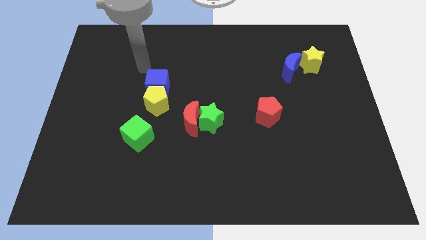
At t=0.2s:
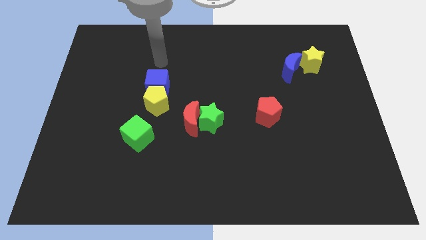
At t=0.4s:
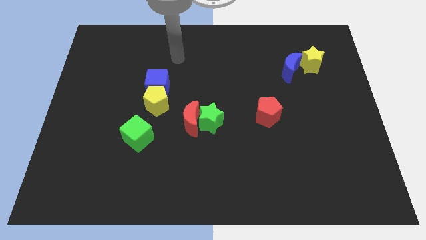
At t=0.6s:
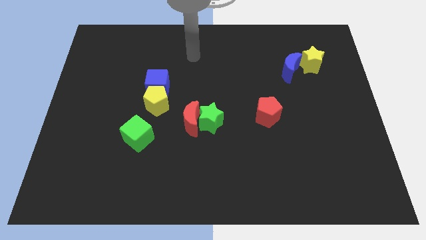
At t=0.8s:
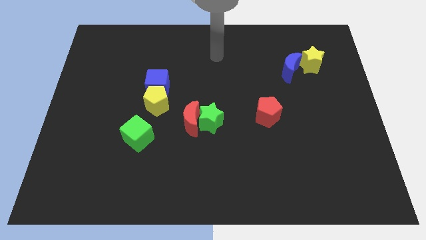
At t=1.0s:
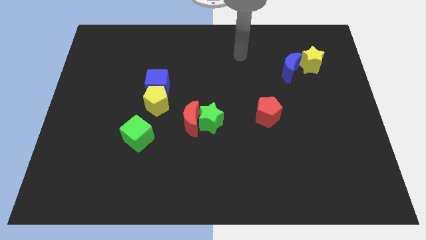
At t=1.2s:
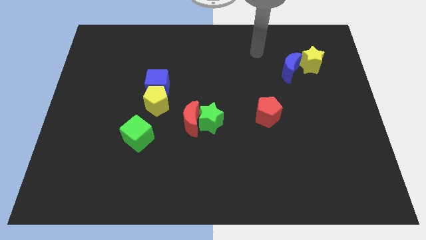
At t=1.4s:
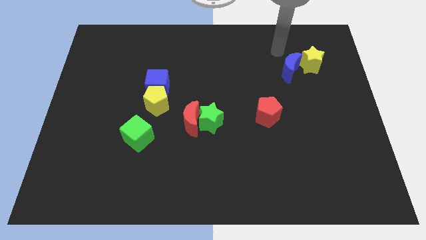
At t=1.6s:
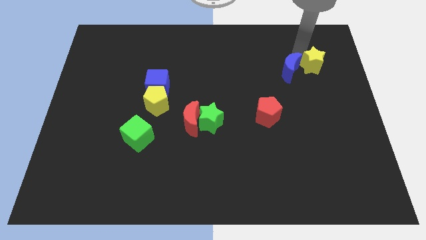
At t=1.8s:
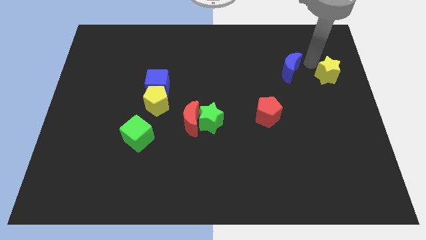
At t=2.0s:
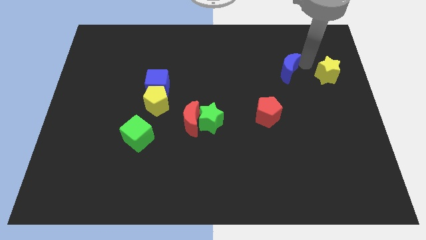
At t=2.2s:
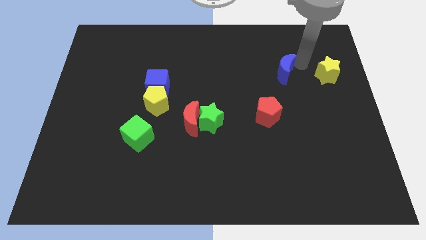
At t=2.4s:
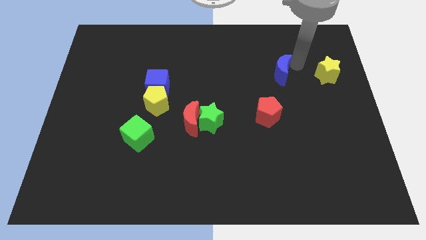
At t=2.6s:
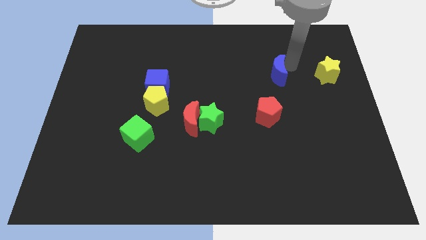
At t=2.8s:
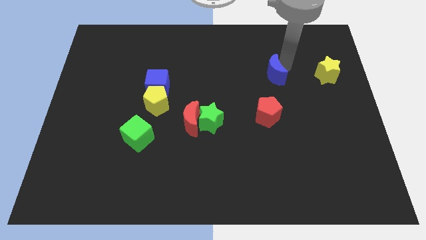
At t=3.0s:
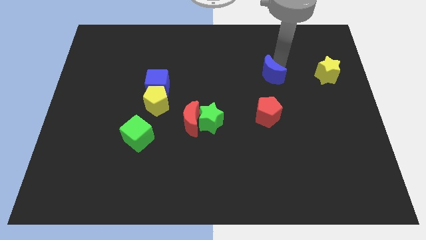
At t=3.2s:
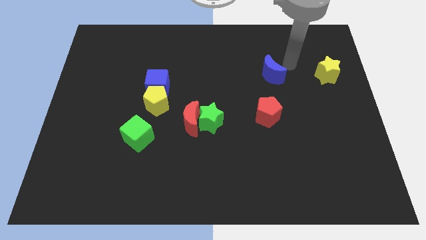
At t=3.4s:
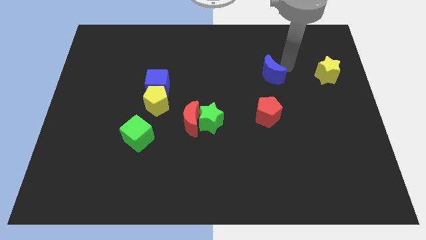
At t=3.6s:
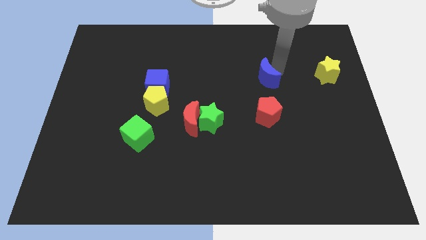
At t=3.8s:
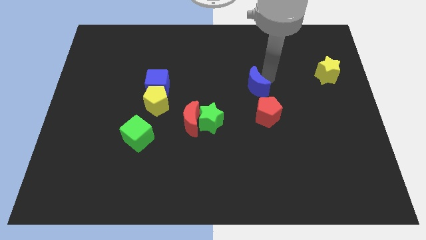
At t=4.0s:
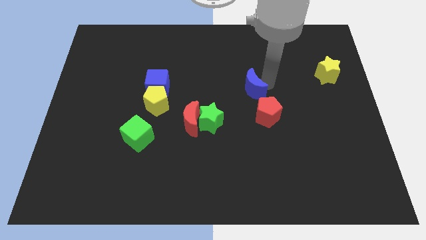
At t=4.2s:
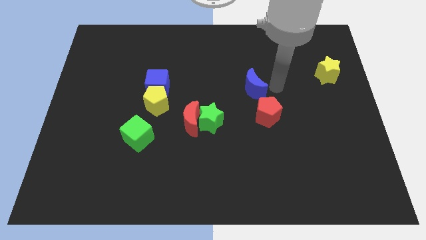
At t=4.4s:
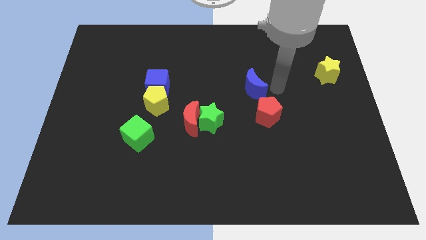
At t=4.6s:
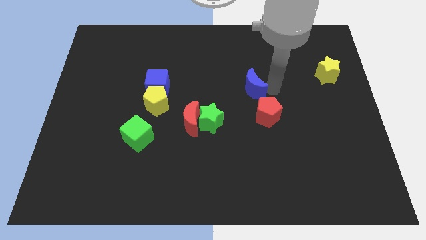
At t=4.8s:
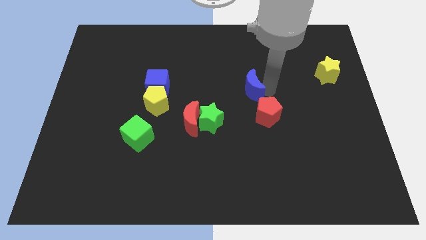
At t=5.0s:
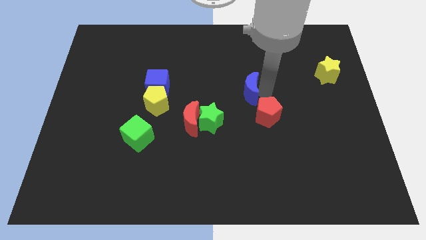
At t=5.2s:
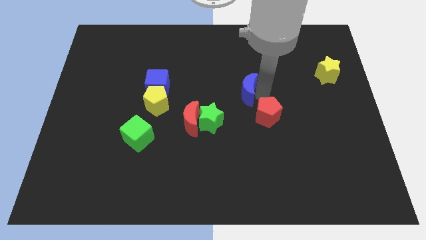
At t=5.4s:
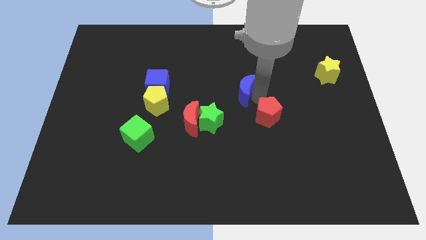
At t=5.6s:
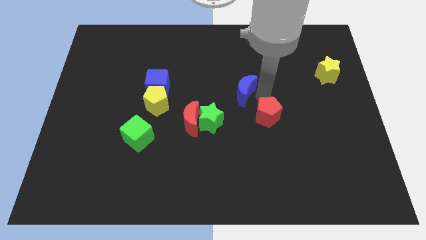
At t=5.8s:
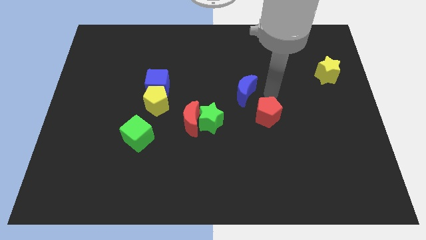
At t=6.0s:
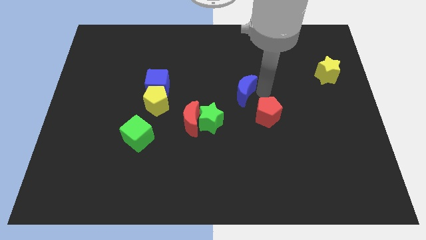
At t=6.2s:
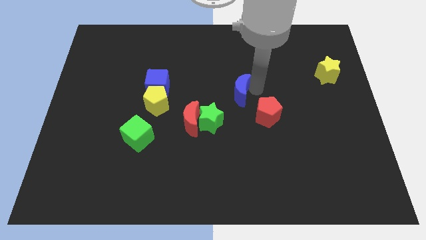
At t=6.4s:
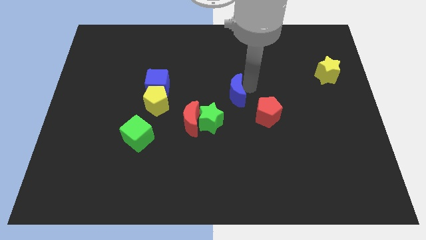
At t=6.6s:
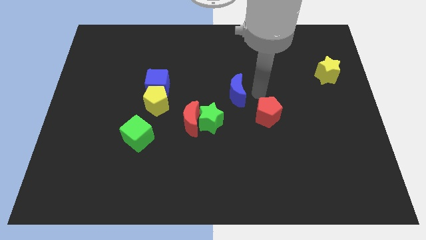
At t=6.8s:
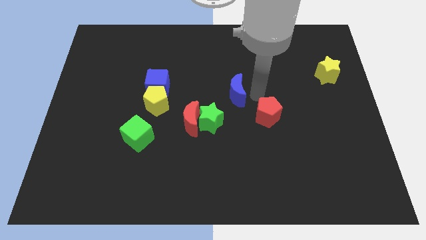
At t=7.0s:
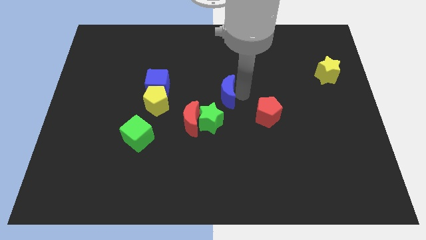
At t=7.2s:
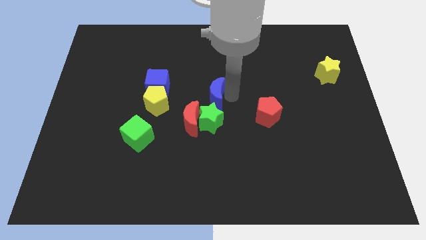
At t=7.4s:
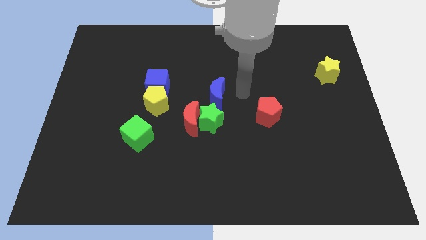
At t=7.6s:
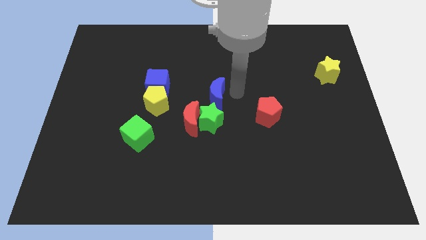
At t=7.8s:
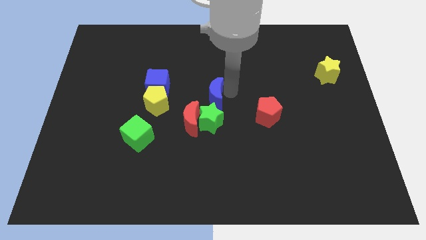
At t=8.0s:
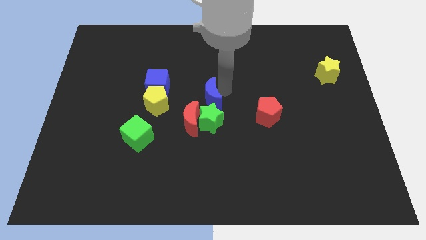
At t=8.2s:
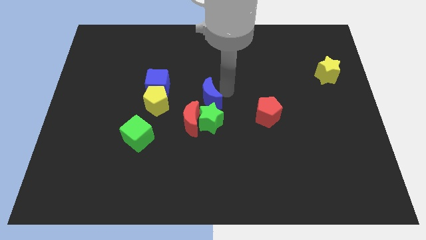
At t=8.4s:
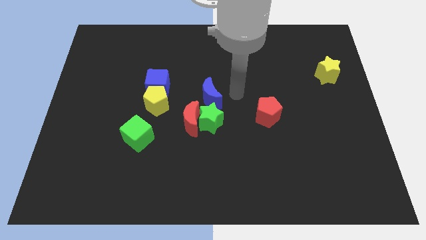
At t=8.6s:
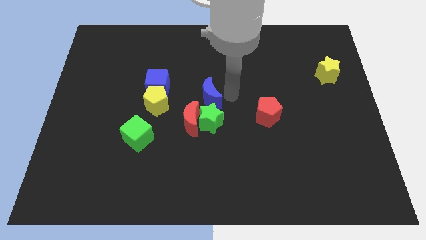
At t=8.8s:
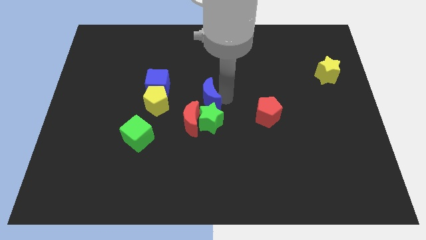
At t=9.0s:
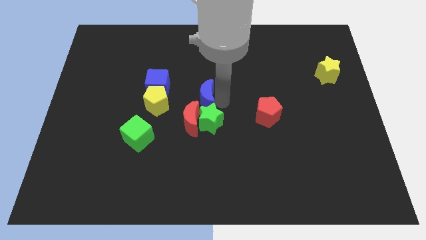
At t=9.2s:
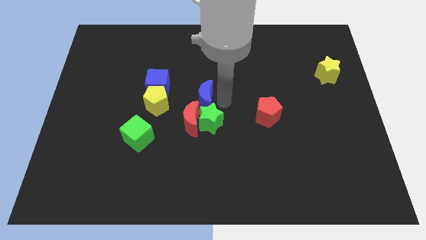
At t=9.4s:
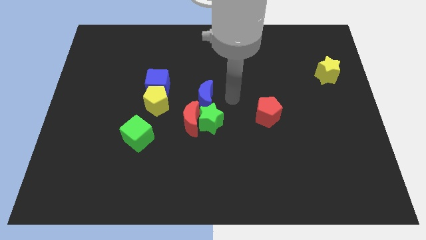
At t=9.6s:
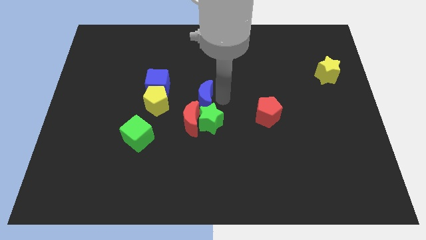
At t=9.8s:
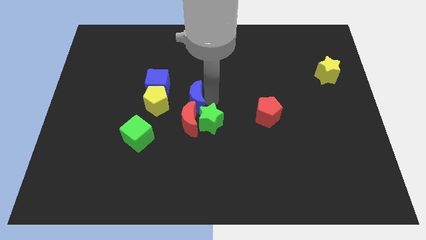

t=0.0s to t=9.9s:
slide the blue moon close to the red moon

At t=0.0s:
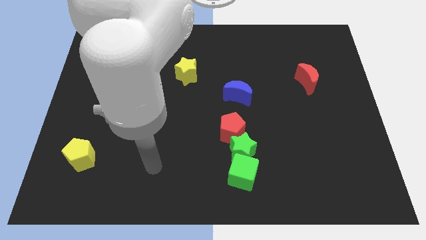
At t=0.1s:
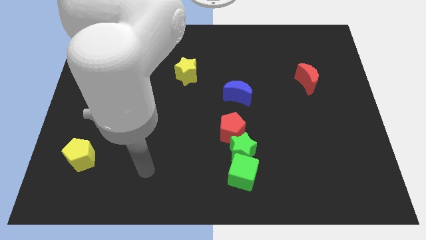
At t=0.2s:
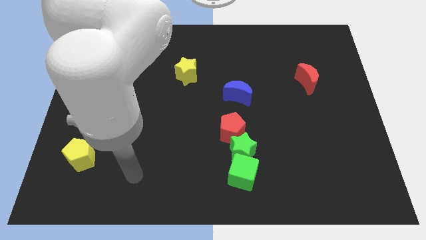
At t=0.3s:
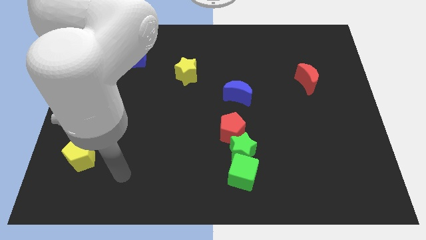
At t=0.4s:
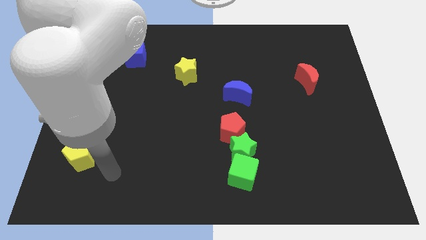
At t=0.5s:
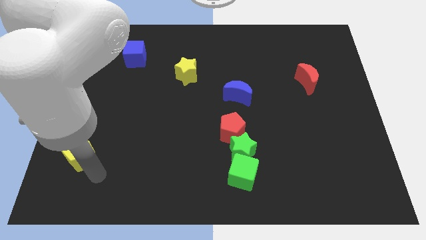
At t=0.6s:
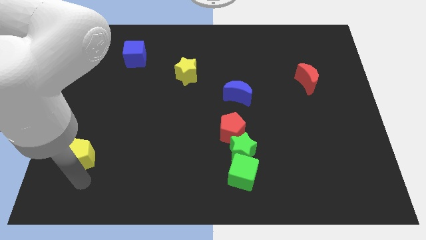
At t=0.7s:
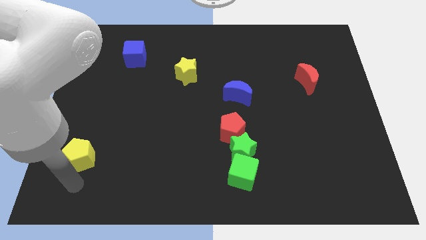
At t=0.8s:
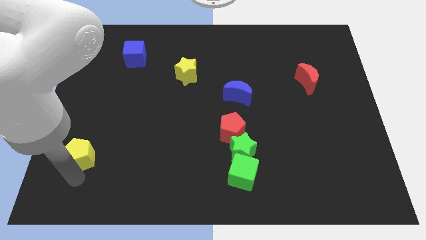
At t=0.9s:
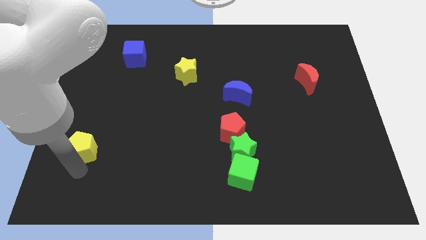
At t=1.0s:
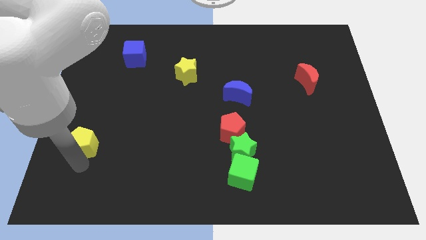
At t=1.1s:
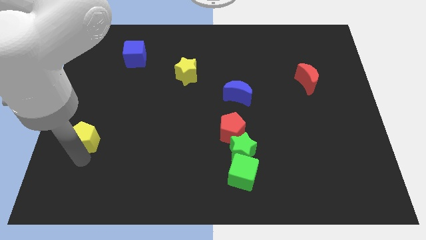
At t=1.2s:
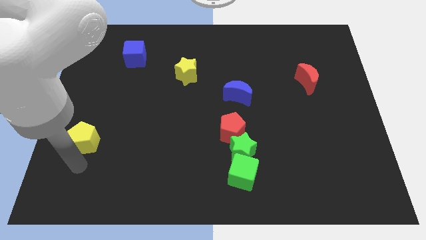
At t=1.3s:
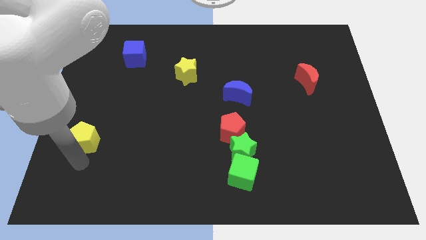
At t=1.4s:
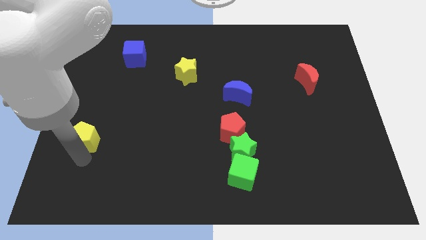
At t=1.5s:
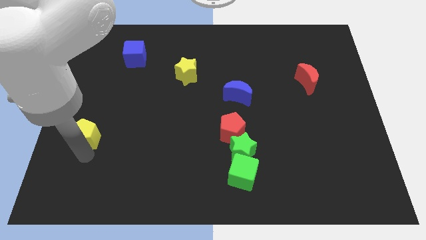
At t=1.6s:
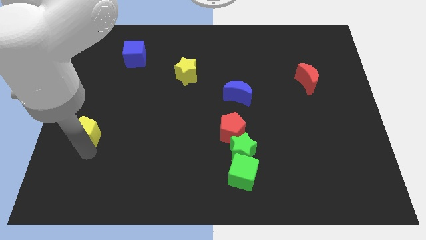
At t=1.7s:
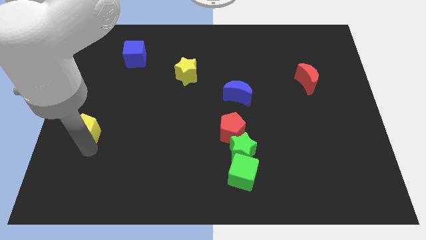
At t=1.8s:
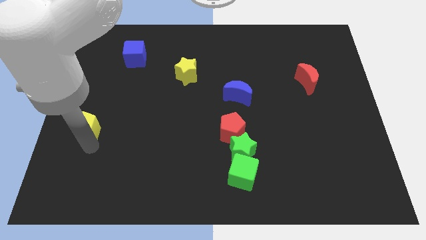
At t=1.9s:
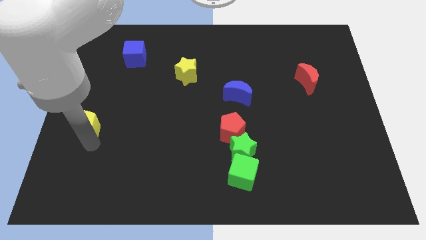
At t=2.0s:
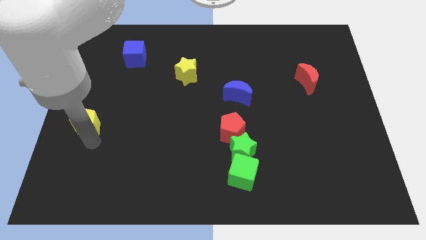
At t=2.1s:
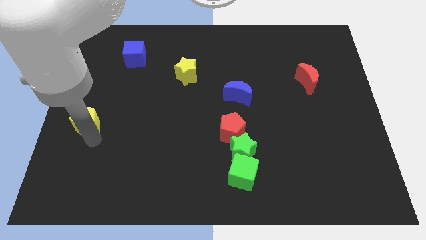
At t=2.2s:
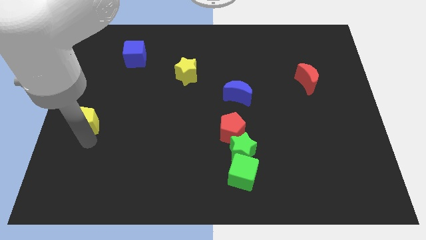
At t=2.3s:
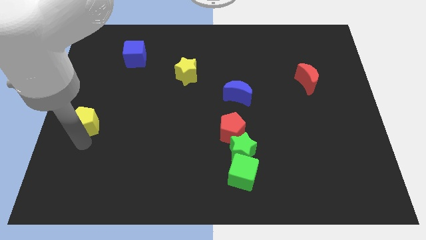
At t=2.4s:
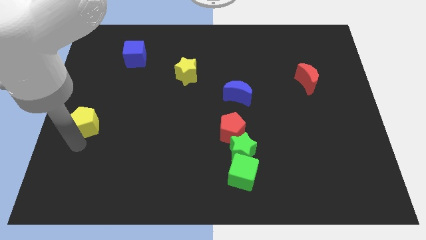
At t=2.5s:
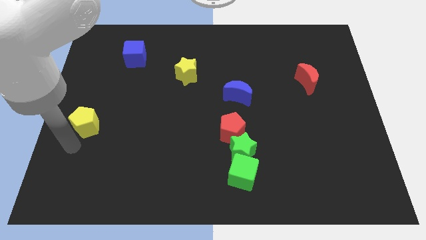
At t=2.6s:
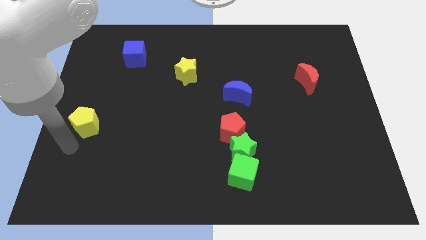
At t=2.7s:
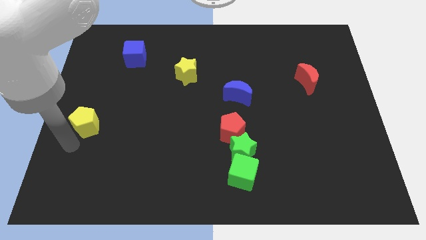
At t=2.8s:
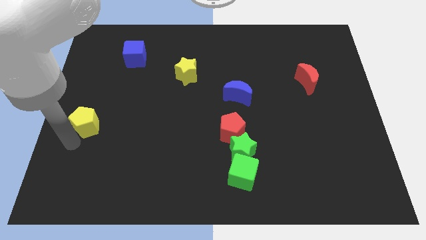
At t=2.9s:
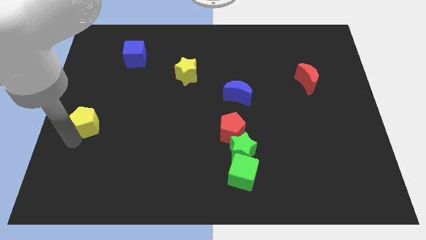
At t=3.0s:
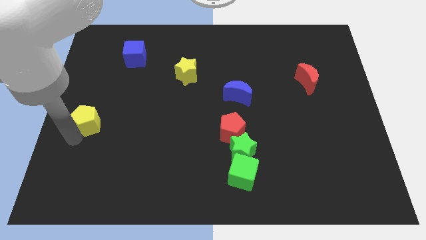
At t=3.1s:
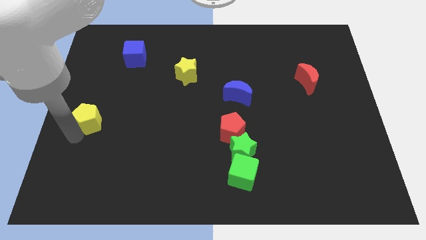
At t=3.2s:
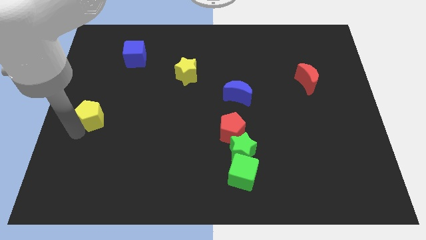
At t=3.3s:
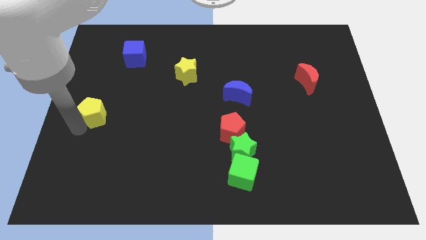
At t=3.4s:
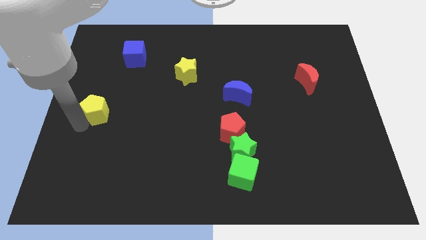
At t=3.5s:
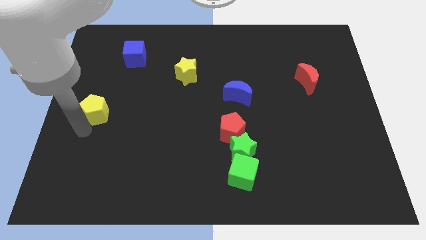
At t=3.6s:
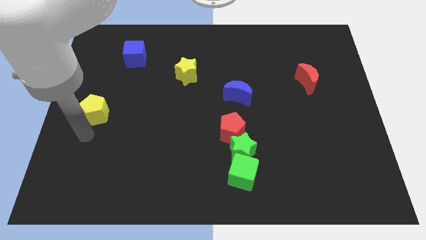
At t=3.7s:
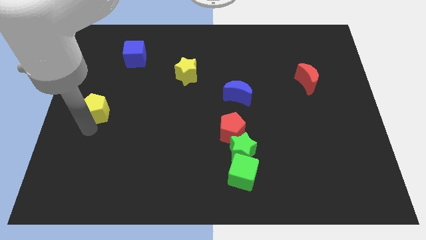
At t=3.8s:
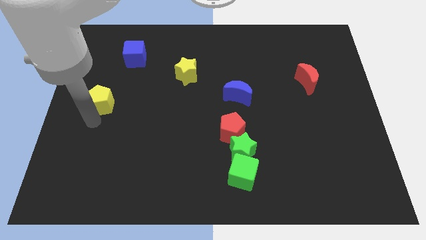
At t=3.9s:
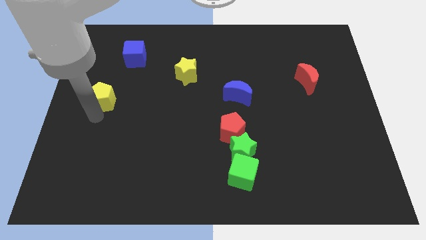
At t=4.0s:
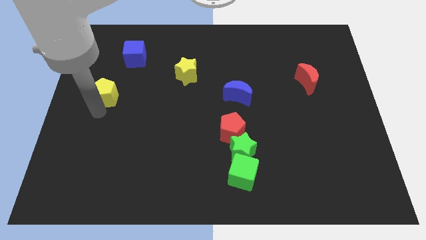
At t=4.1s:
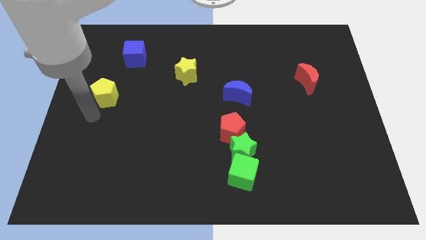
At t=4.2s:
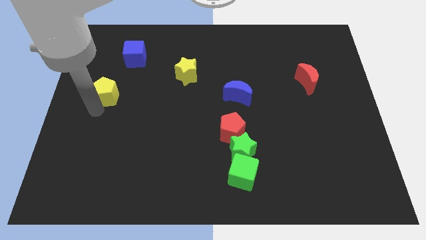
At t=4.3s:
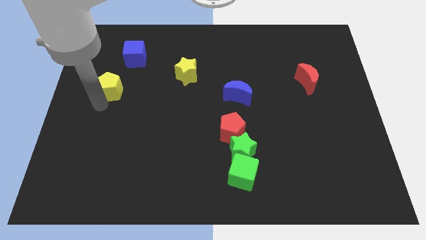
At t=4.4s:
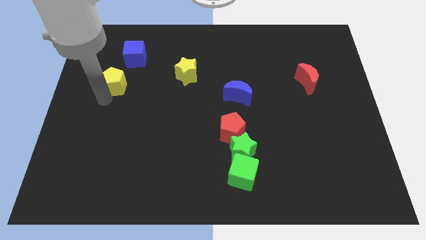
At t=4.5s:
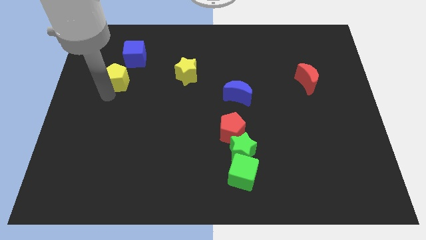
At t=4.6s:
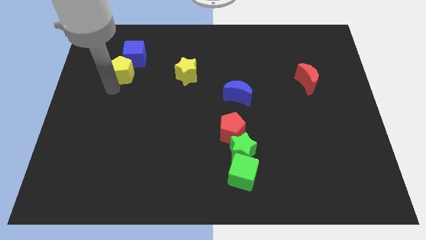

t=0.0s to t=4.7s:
slide the yellow pentagon close to the blue cube
